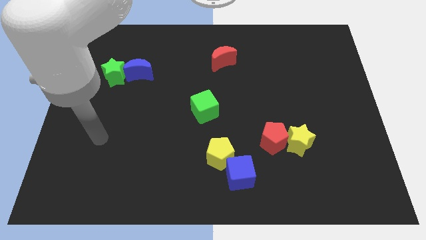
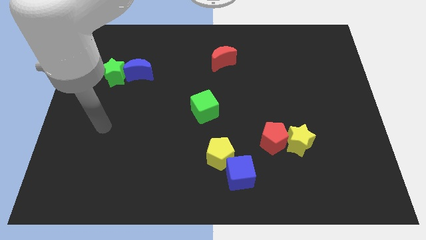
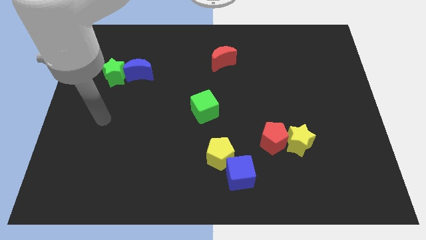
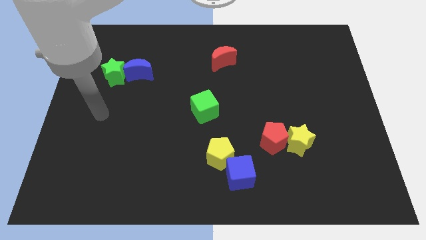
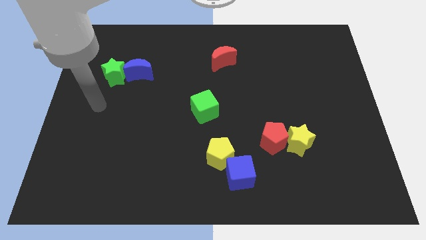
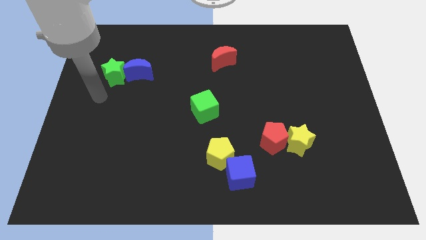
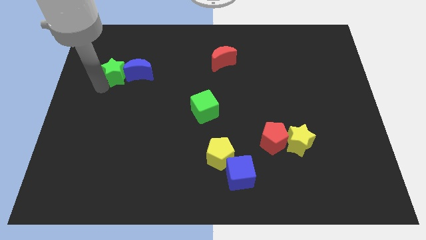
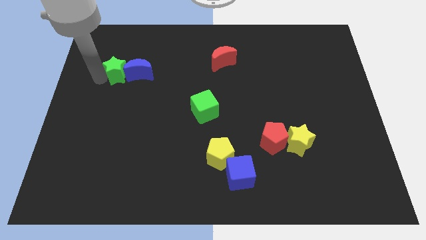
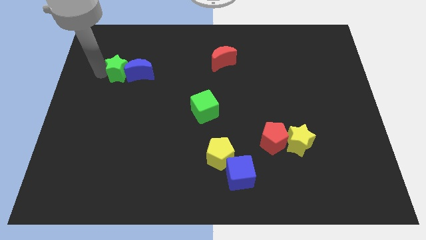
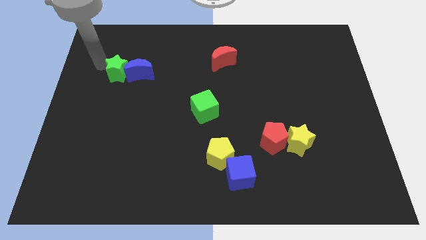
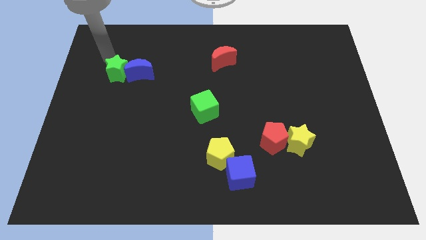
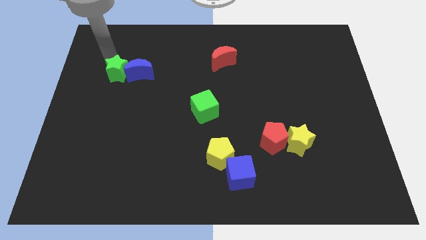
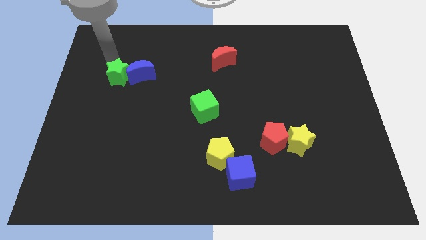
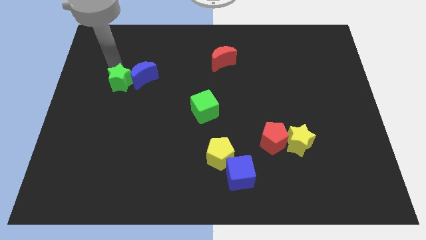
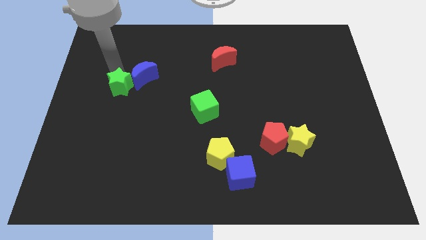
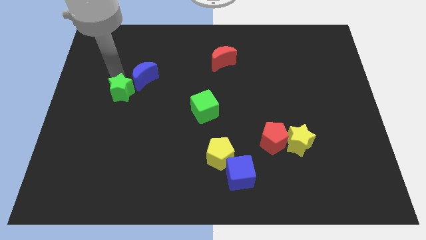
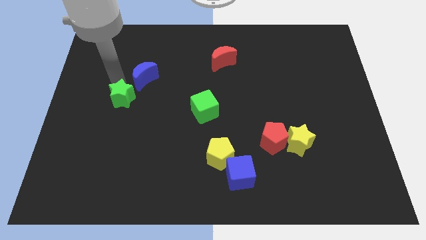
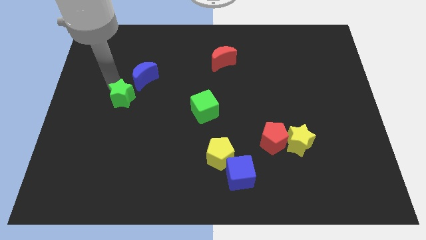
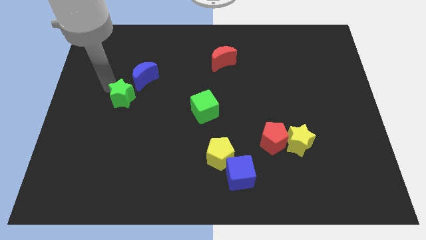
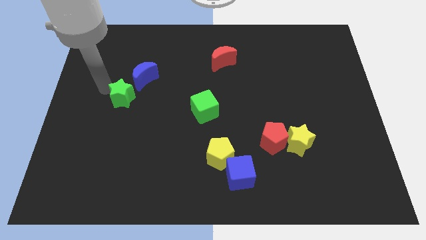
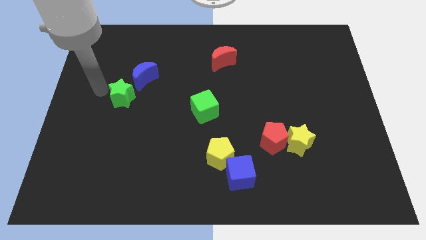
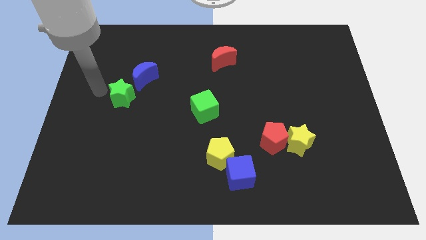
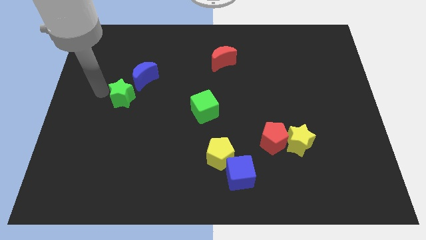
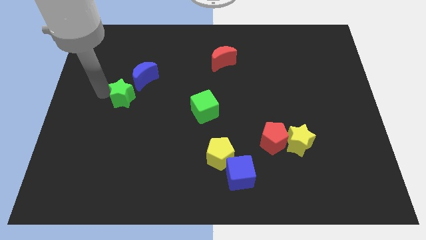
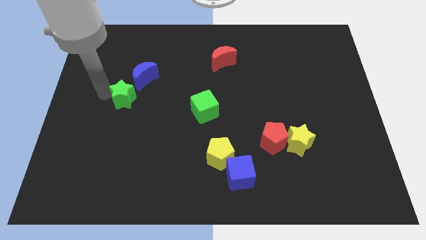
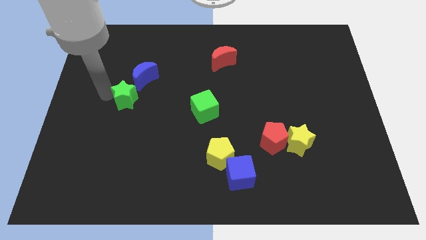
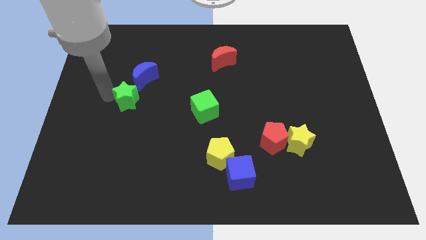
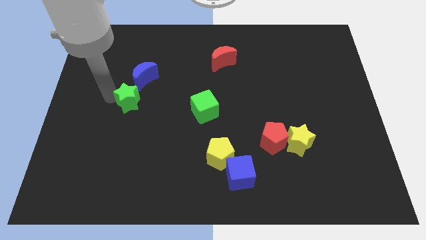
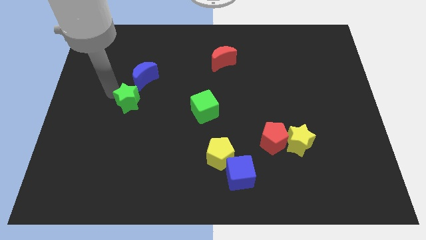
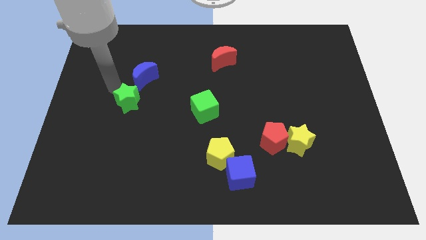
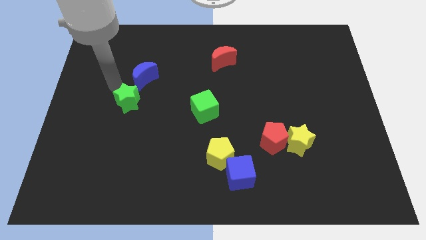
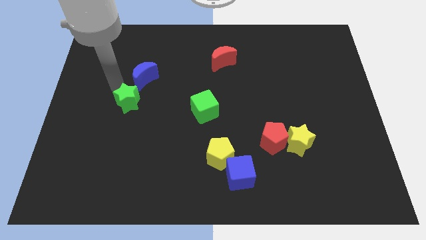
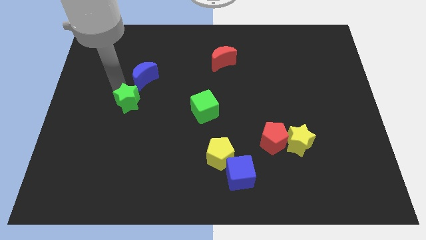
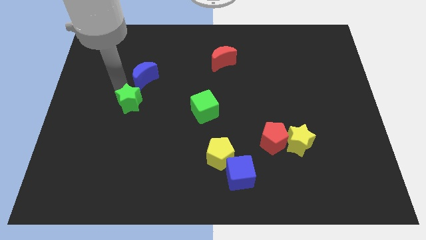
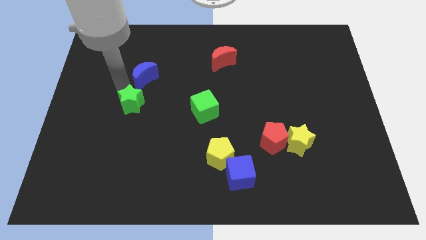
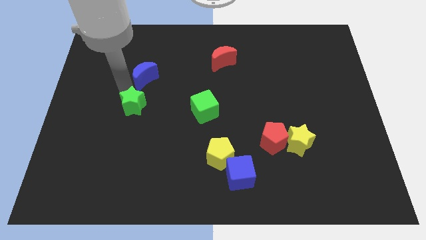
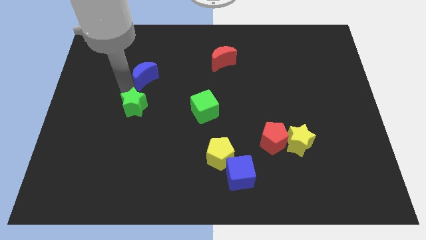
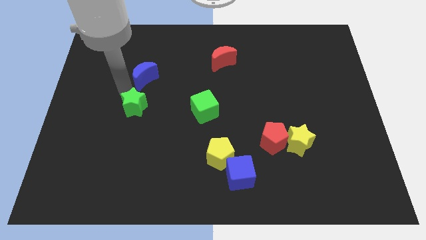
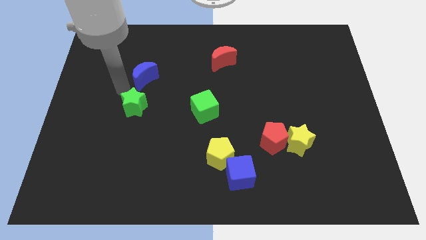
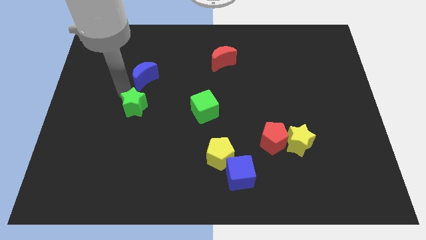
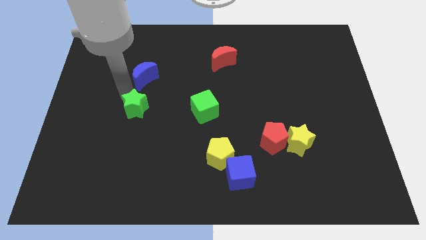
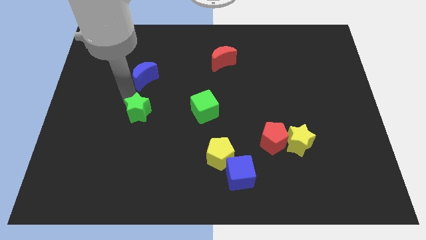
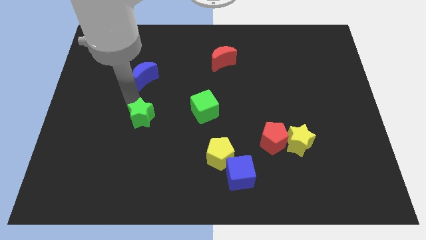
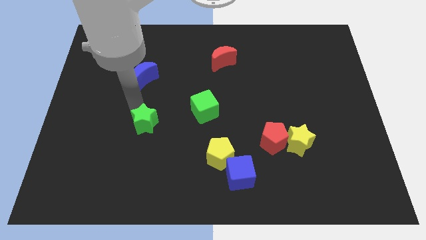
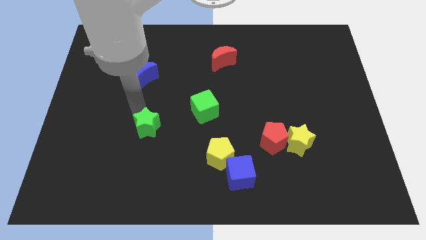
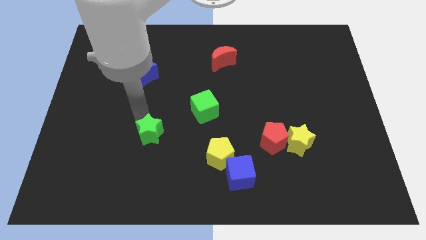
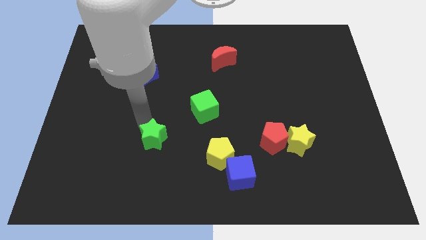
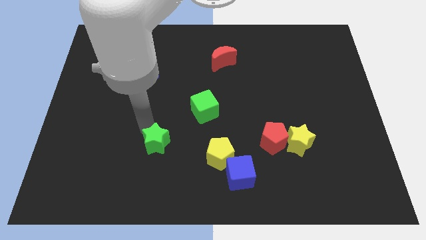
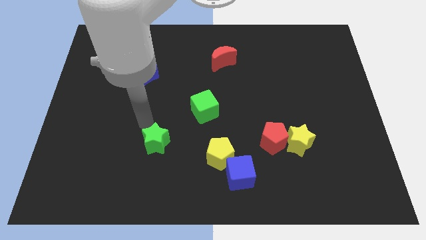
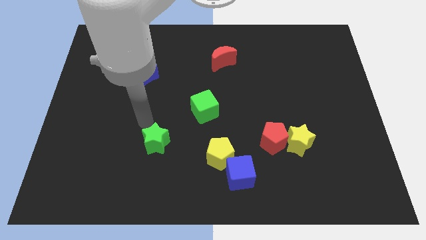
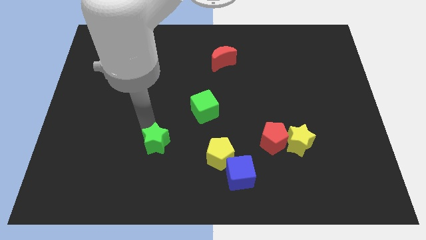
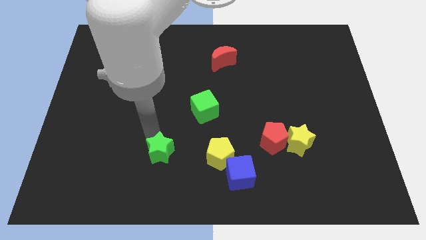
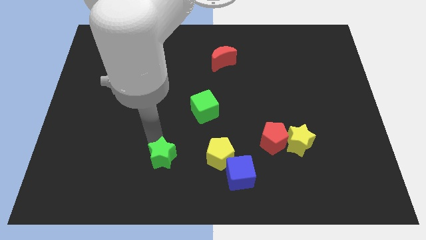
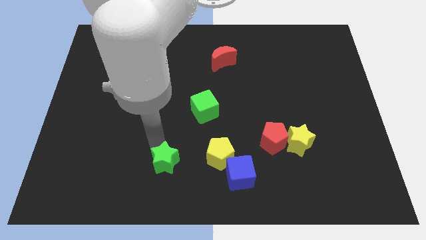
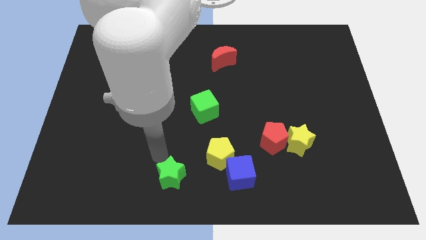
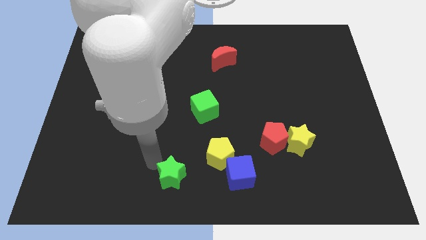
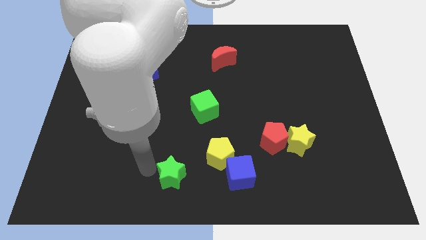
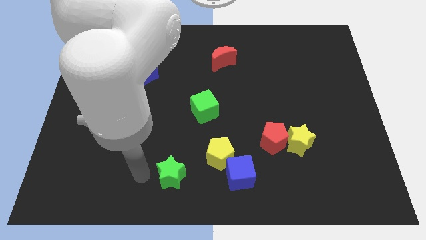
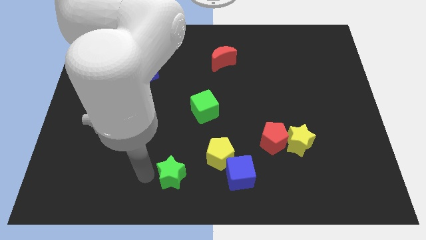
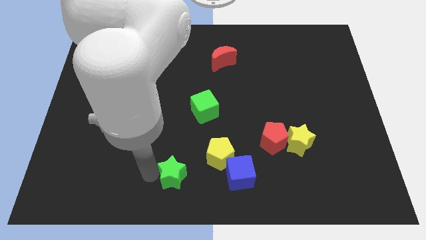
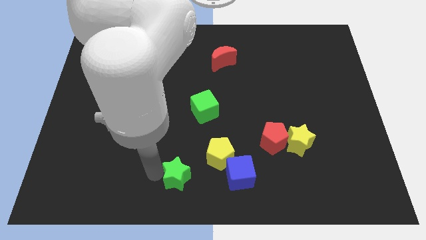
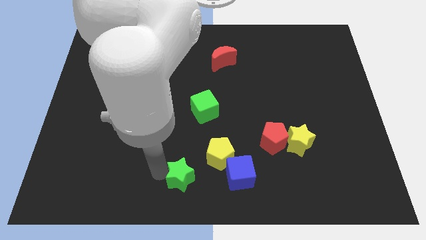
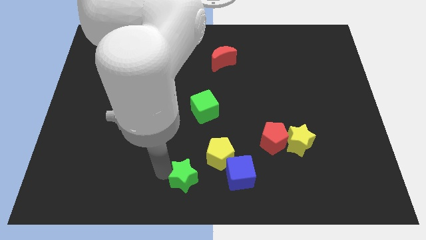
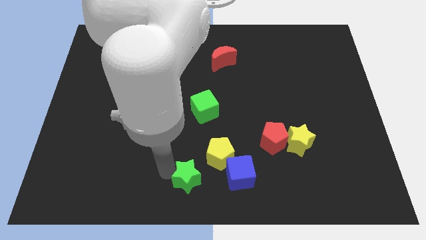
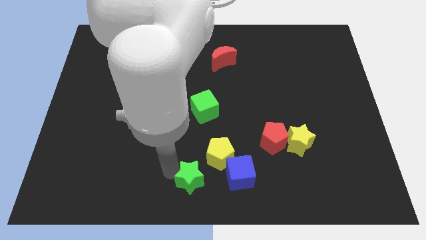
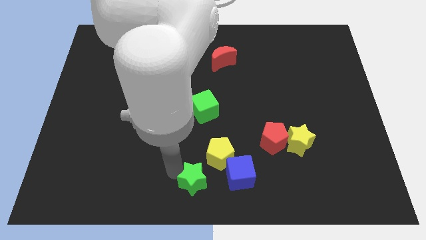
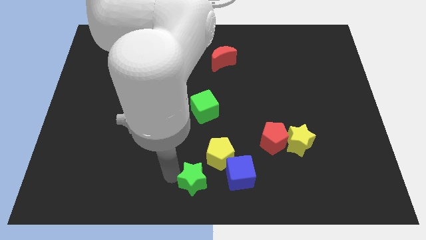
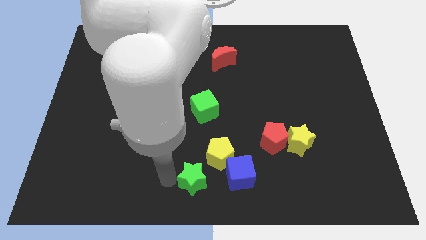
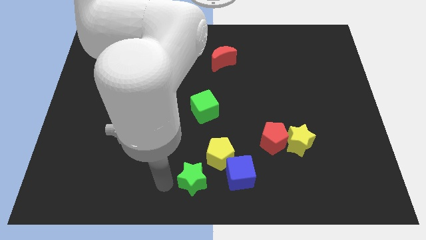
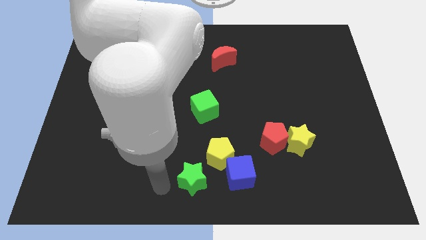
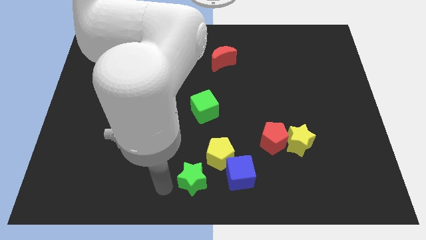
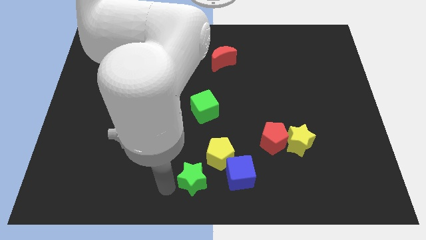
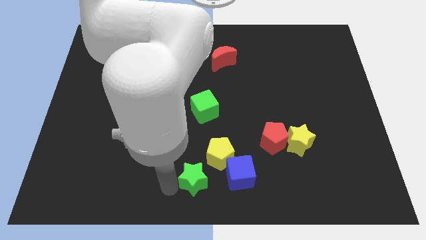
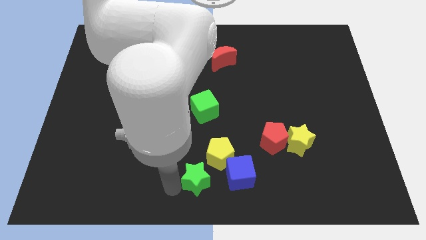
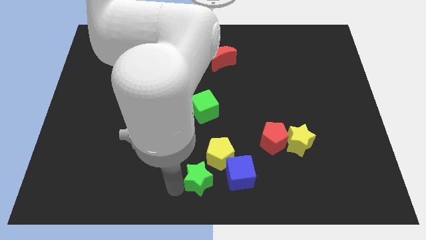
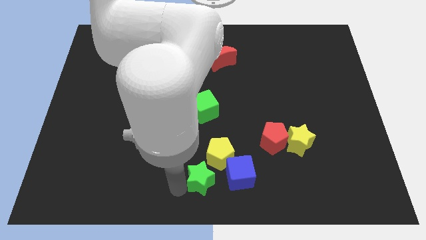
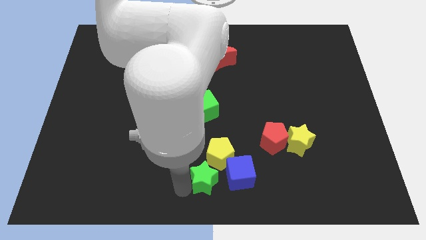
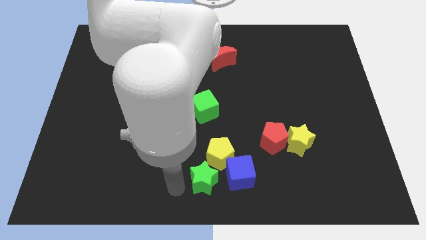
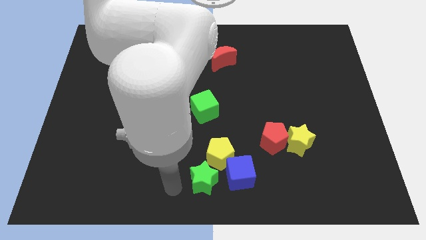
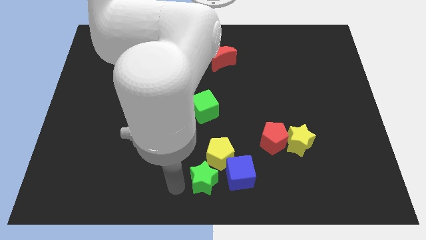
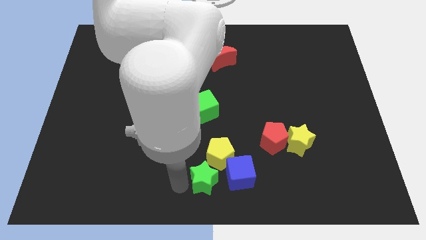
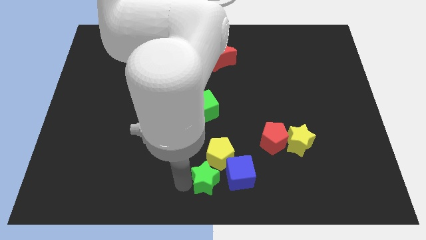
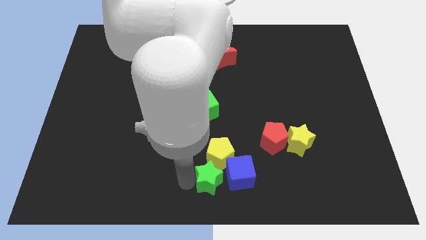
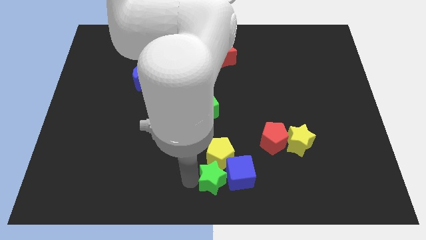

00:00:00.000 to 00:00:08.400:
push the green star next to the blue cube
